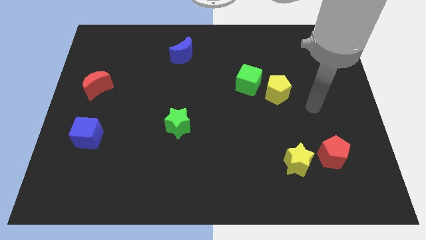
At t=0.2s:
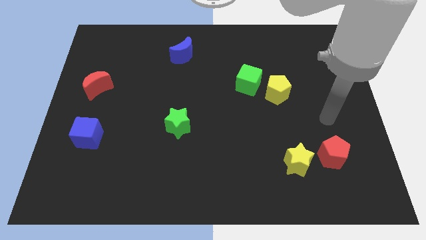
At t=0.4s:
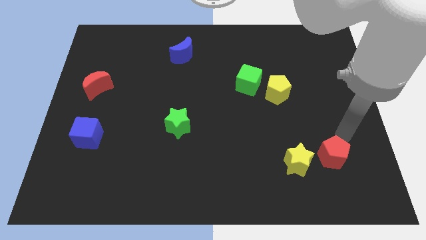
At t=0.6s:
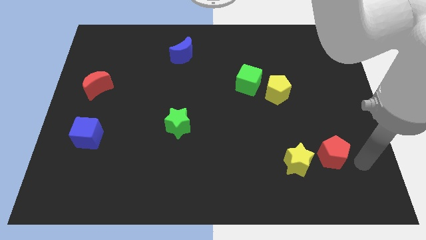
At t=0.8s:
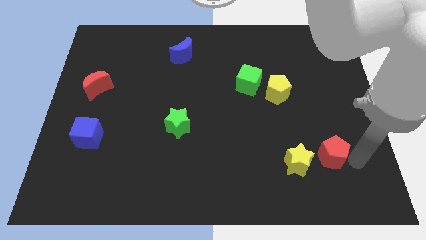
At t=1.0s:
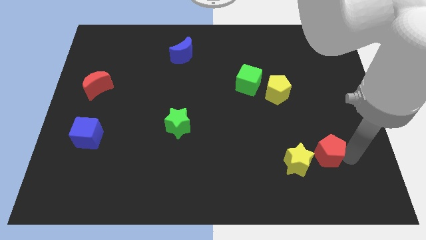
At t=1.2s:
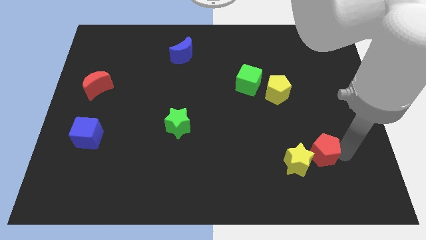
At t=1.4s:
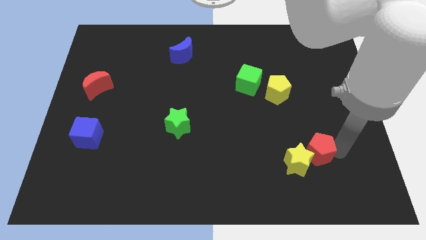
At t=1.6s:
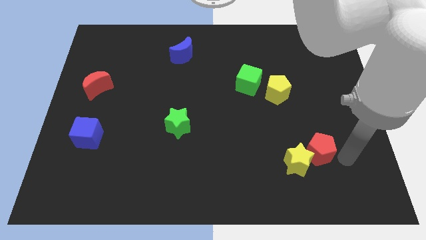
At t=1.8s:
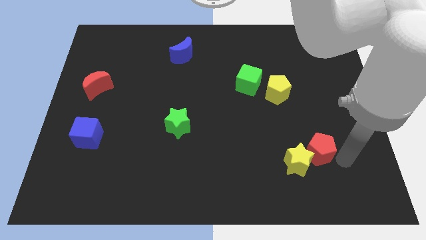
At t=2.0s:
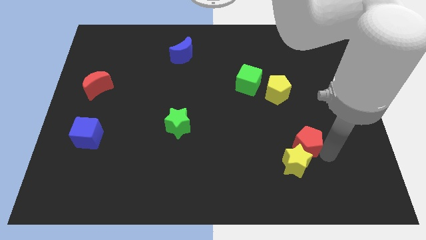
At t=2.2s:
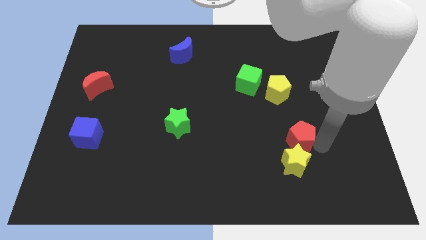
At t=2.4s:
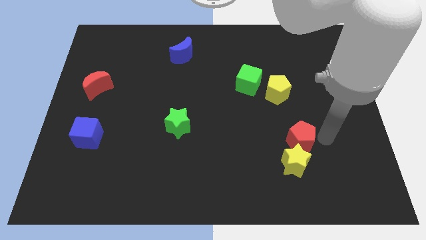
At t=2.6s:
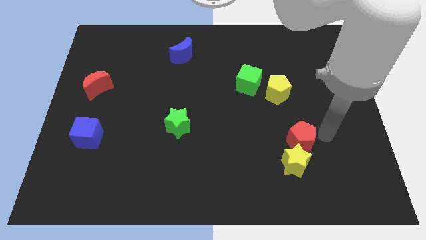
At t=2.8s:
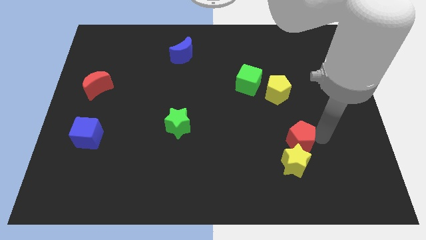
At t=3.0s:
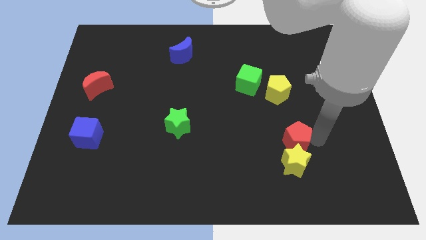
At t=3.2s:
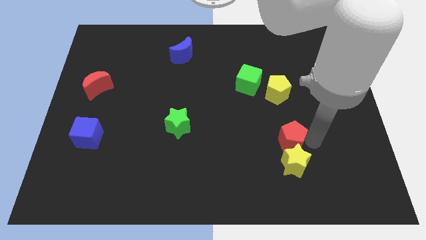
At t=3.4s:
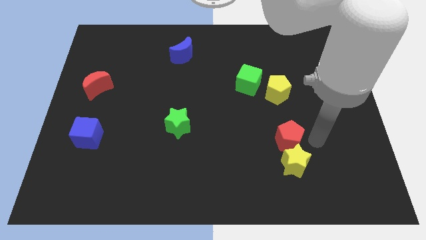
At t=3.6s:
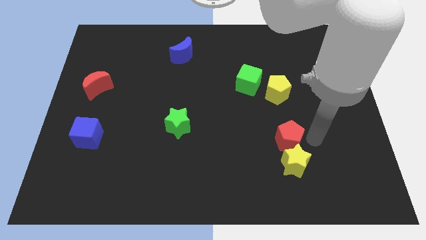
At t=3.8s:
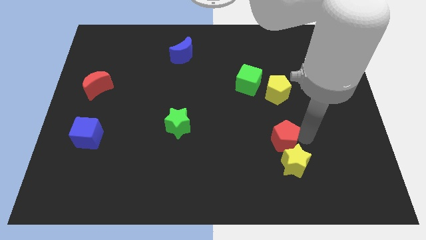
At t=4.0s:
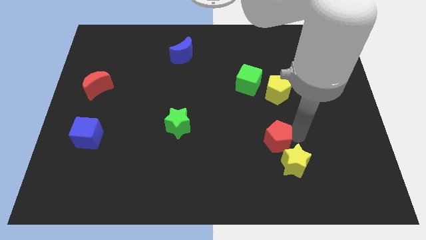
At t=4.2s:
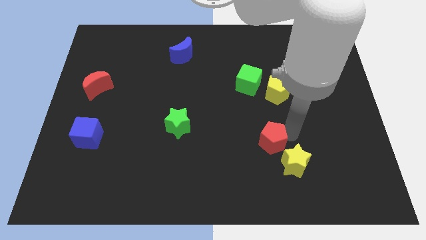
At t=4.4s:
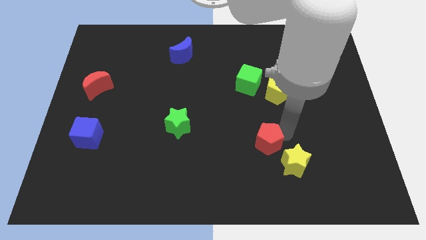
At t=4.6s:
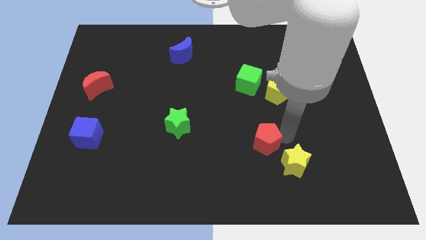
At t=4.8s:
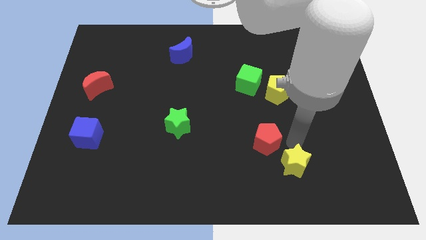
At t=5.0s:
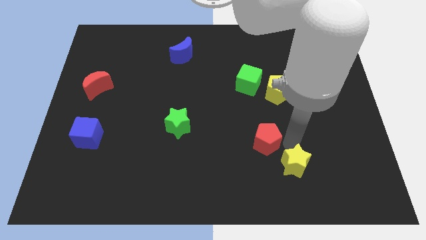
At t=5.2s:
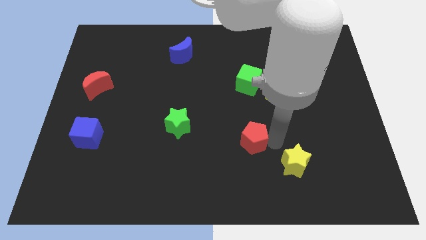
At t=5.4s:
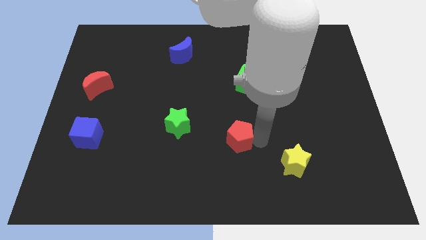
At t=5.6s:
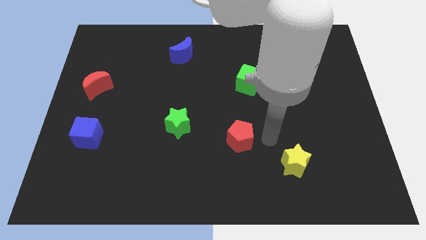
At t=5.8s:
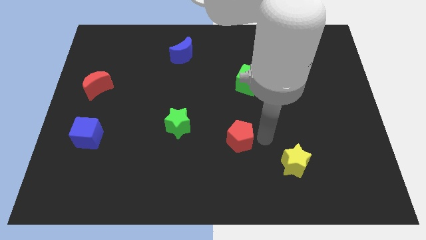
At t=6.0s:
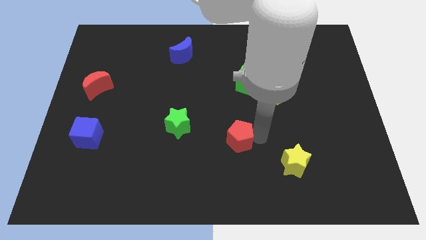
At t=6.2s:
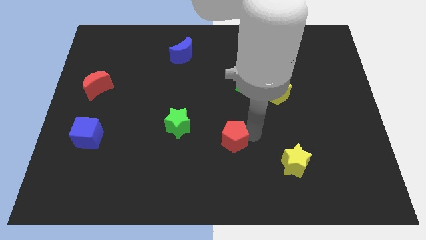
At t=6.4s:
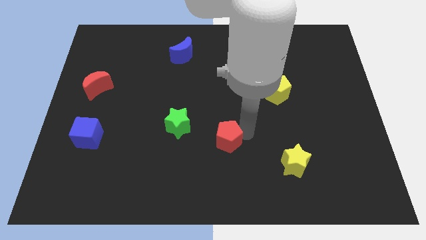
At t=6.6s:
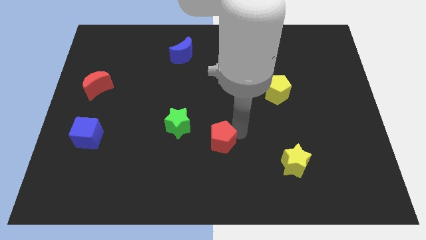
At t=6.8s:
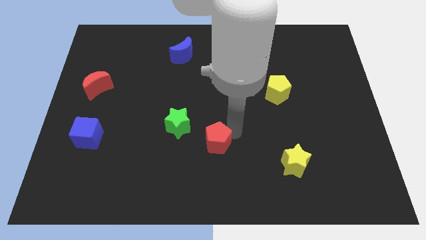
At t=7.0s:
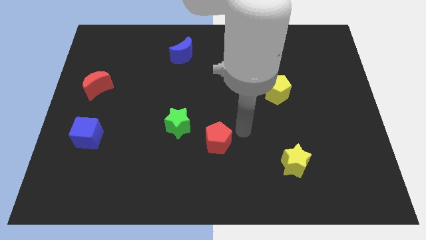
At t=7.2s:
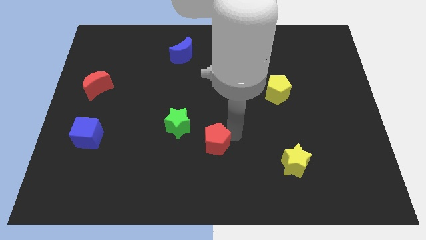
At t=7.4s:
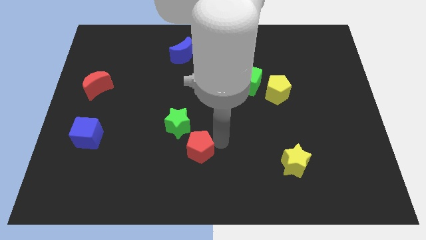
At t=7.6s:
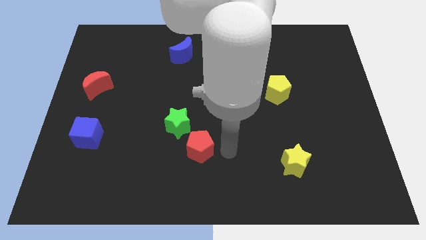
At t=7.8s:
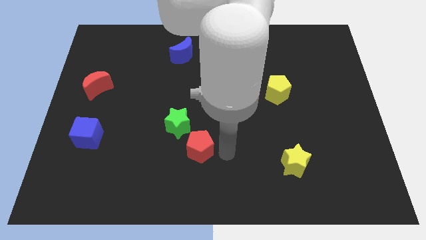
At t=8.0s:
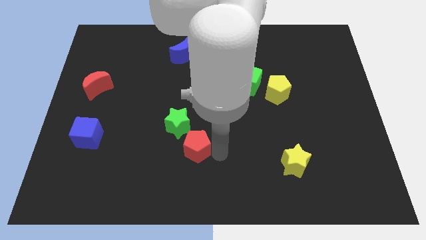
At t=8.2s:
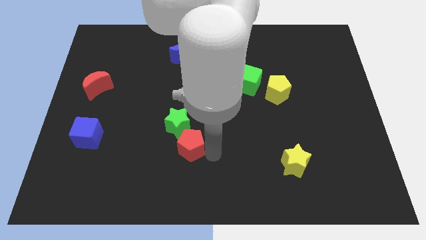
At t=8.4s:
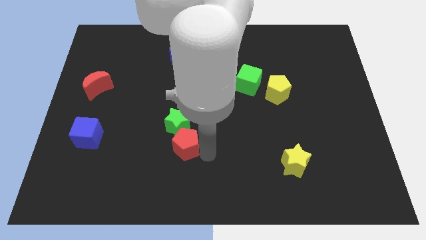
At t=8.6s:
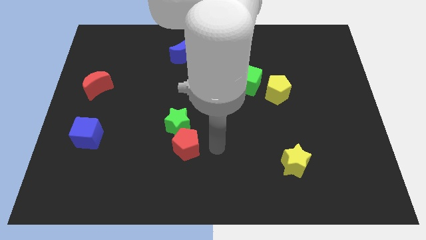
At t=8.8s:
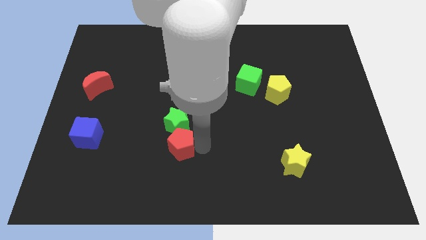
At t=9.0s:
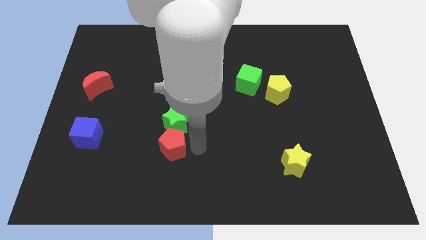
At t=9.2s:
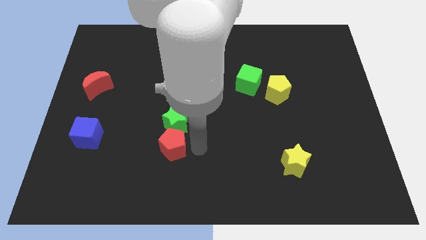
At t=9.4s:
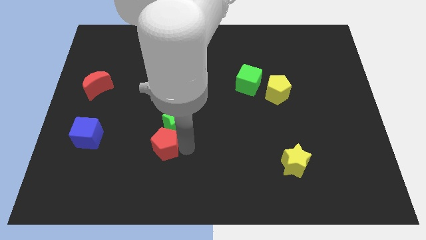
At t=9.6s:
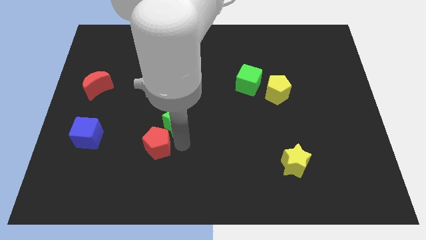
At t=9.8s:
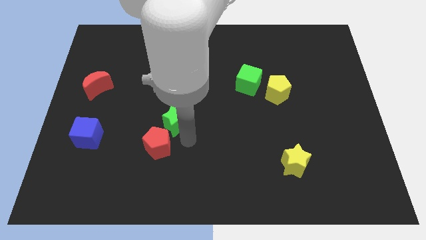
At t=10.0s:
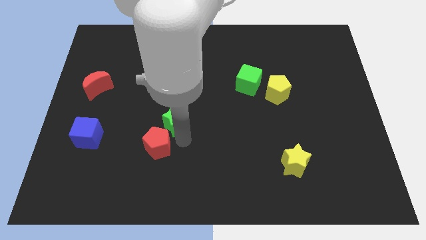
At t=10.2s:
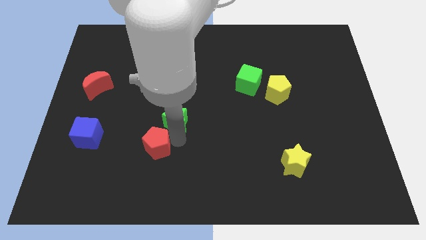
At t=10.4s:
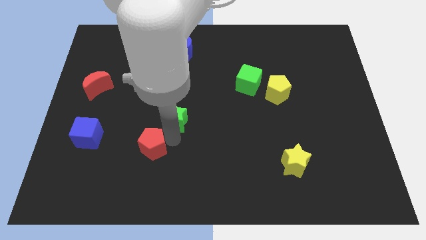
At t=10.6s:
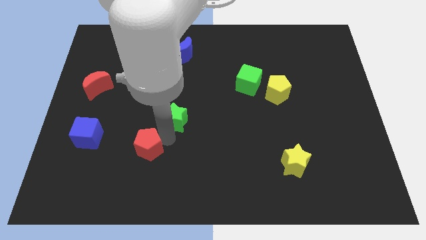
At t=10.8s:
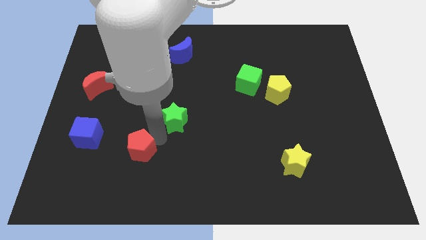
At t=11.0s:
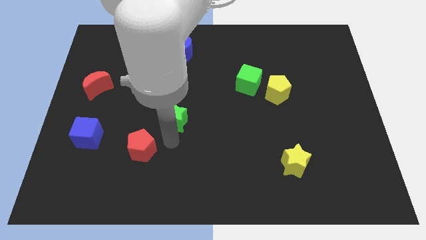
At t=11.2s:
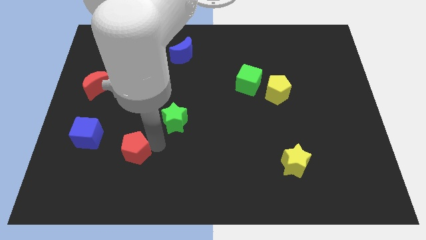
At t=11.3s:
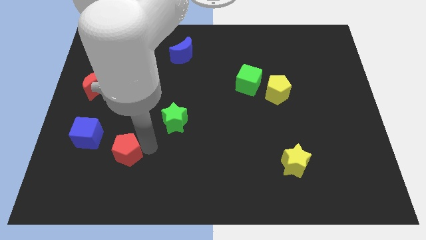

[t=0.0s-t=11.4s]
move the red pentagon diagonally down and to the right of the blue cube

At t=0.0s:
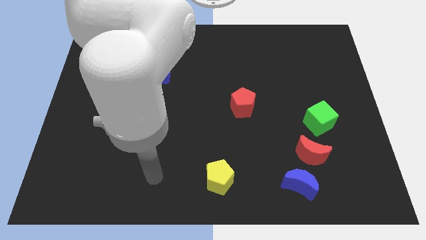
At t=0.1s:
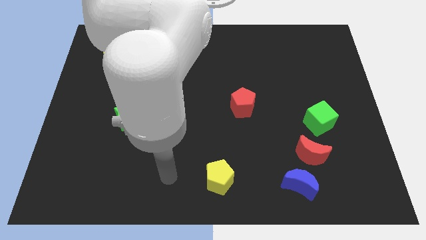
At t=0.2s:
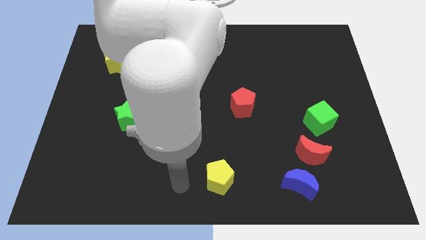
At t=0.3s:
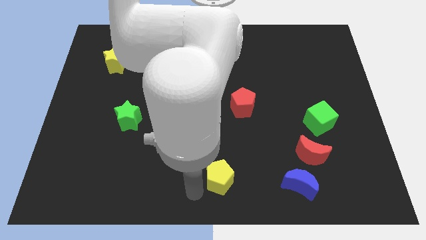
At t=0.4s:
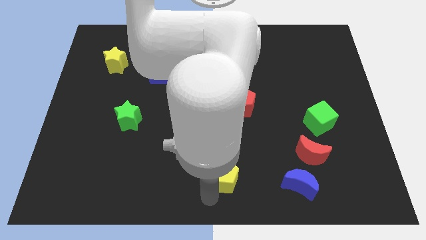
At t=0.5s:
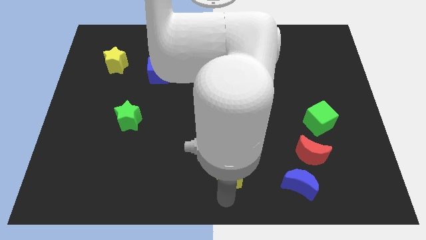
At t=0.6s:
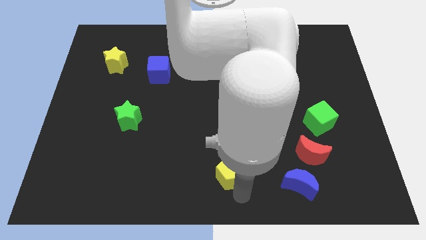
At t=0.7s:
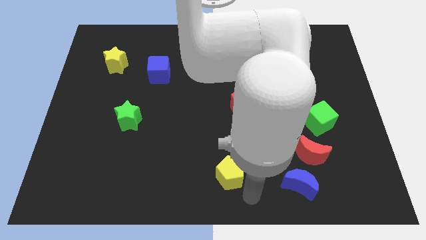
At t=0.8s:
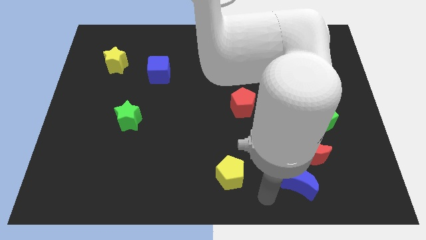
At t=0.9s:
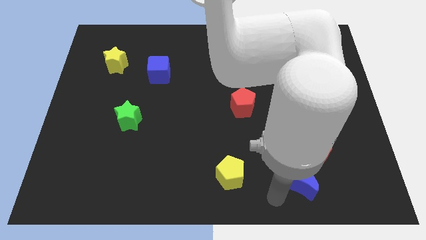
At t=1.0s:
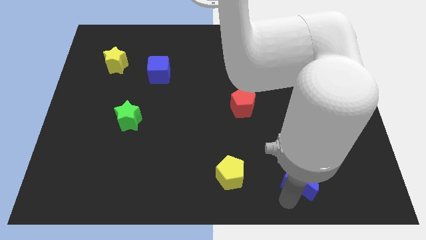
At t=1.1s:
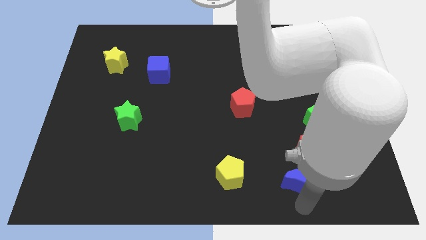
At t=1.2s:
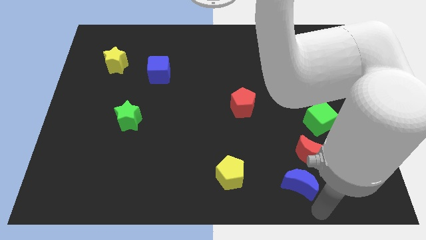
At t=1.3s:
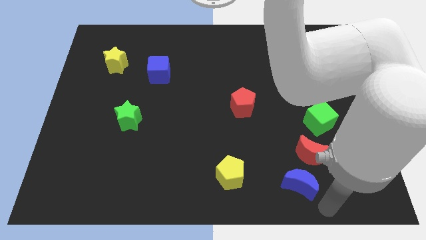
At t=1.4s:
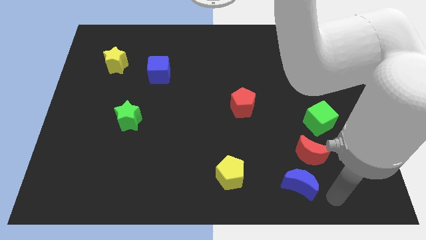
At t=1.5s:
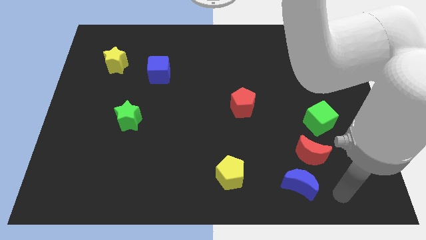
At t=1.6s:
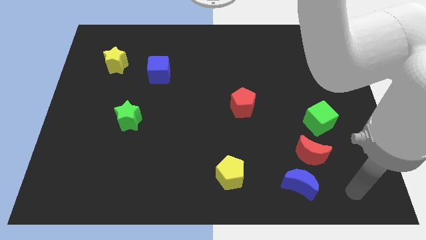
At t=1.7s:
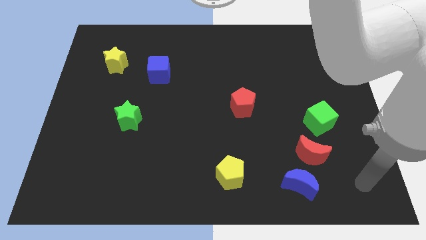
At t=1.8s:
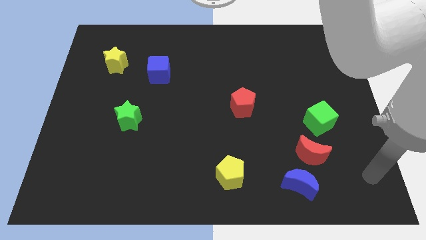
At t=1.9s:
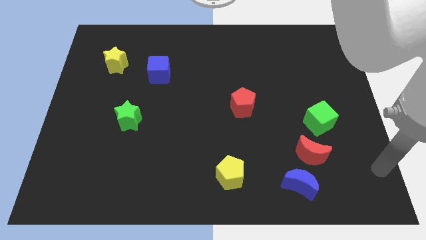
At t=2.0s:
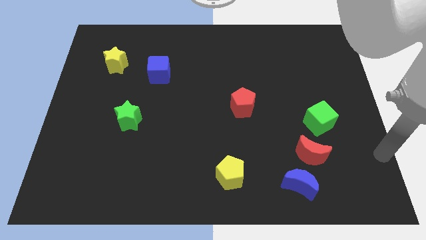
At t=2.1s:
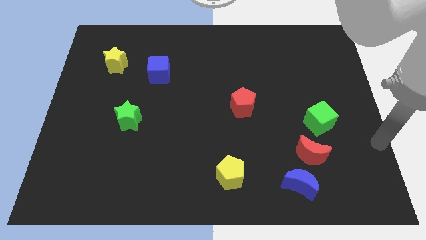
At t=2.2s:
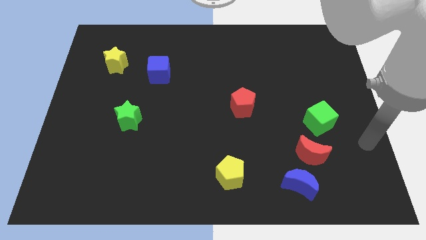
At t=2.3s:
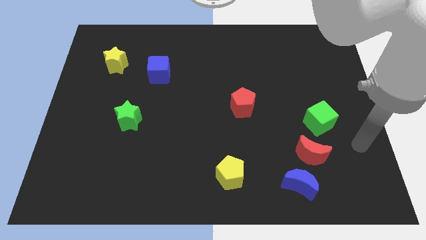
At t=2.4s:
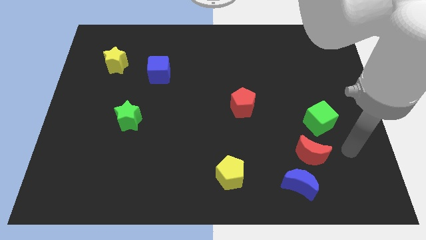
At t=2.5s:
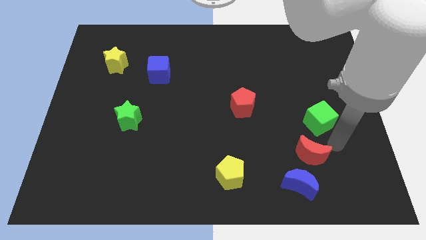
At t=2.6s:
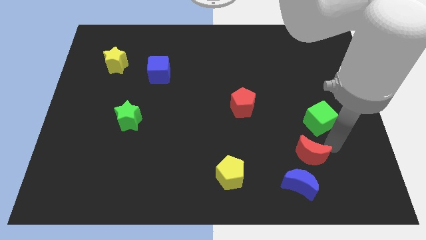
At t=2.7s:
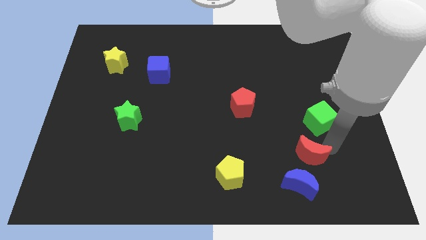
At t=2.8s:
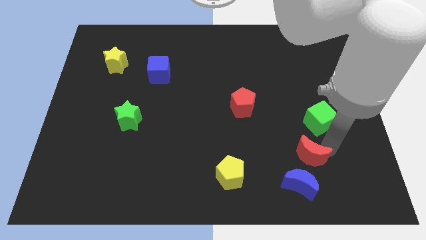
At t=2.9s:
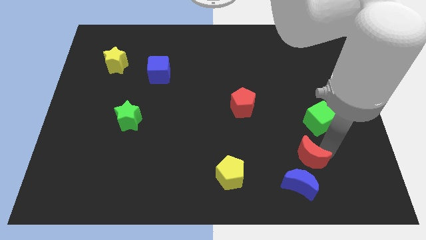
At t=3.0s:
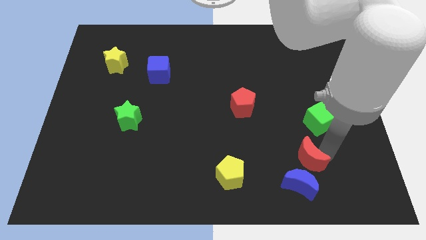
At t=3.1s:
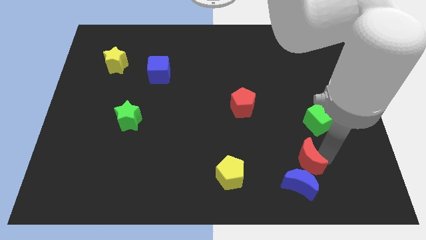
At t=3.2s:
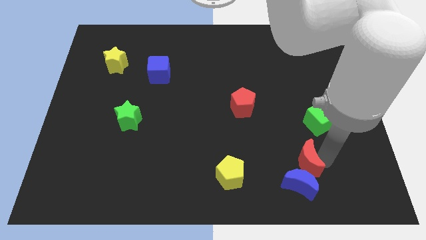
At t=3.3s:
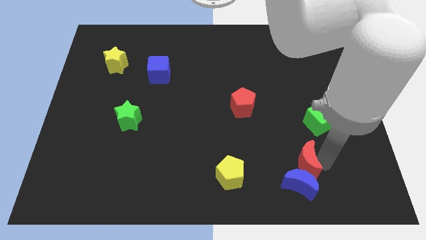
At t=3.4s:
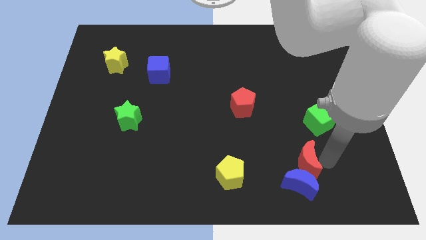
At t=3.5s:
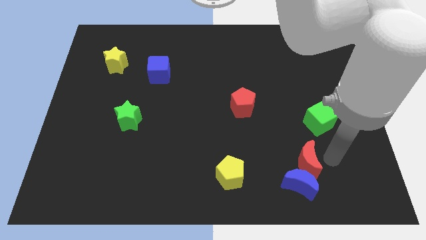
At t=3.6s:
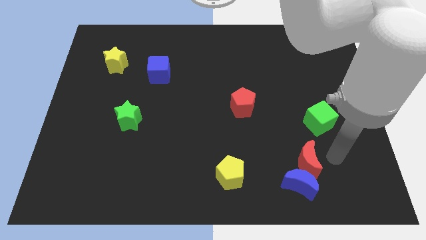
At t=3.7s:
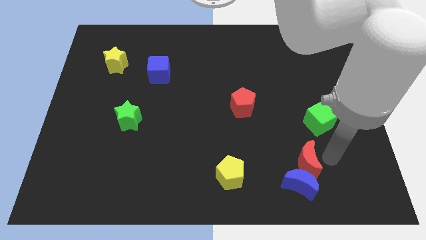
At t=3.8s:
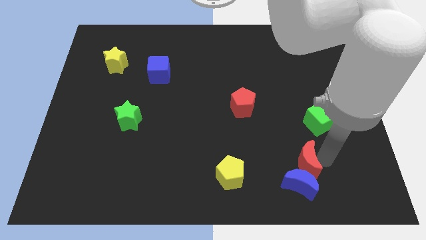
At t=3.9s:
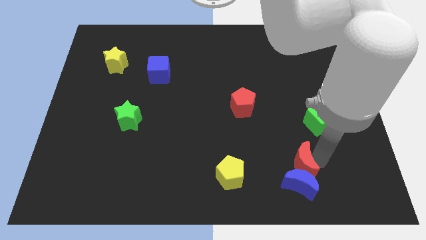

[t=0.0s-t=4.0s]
put the red moon right of the yellow pentagon
